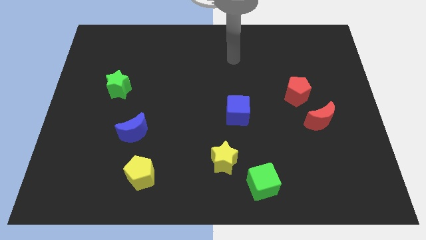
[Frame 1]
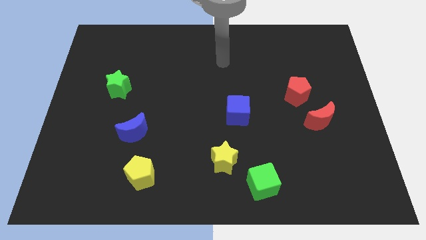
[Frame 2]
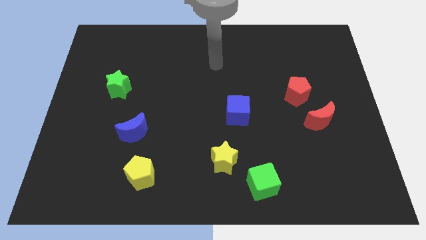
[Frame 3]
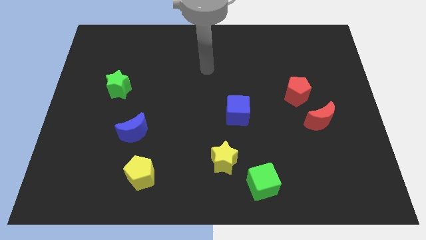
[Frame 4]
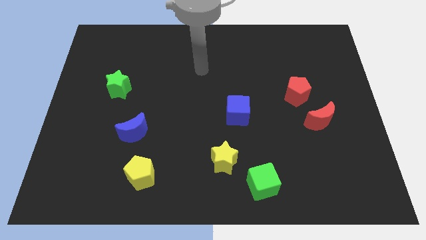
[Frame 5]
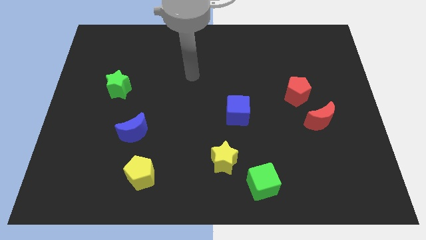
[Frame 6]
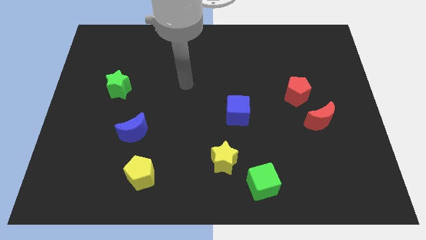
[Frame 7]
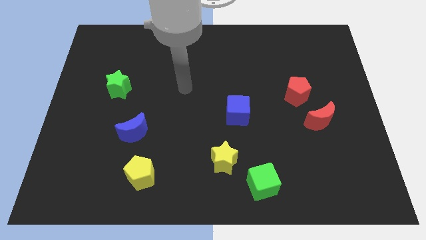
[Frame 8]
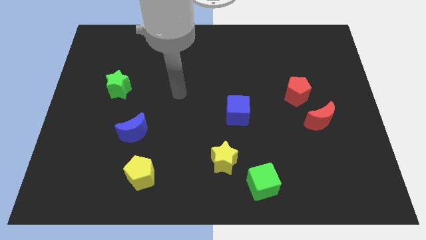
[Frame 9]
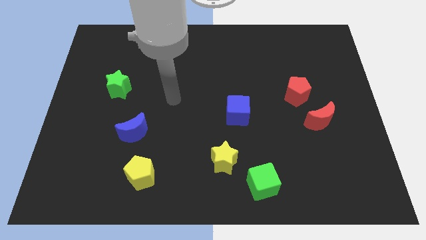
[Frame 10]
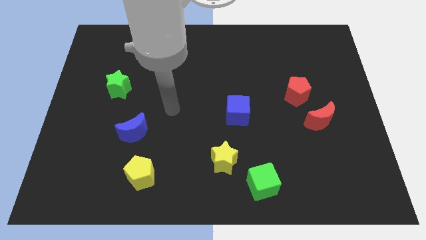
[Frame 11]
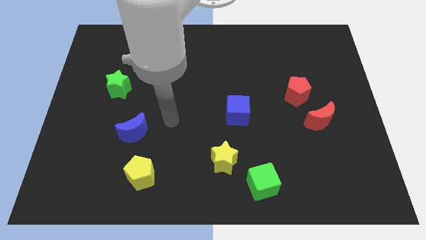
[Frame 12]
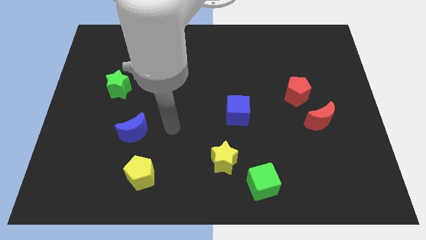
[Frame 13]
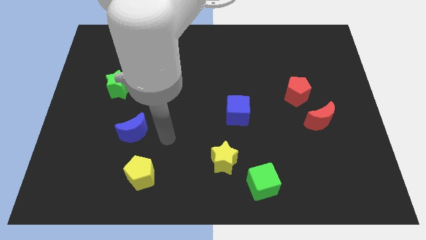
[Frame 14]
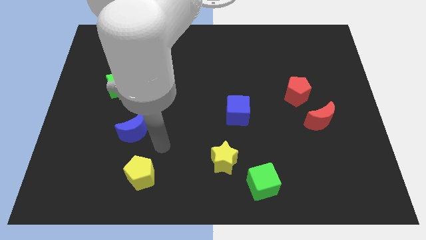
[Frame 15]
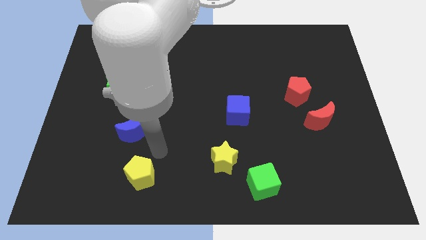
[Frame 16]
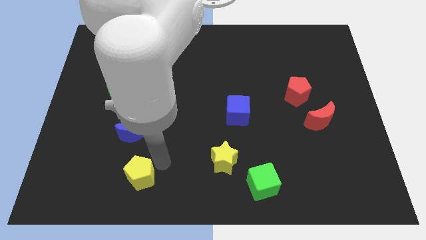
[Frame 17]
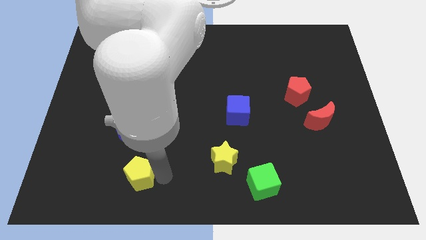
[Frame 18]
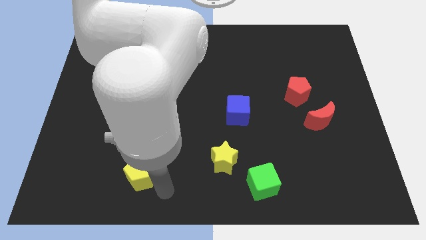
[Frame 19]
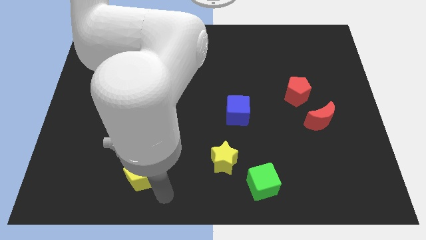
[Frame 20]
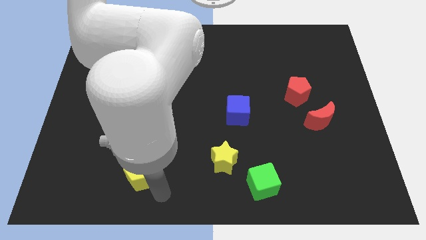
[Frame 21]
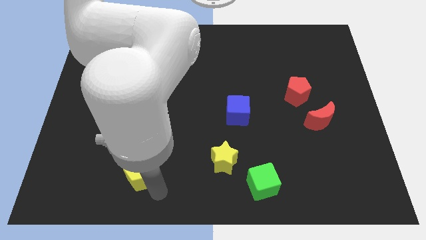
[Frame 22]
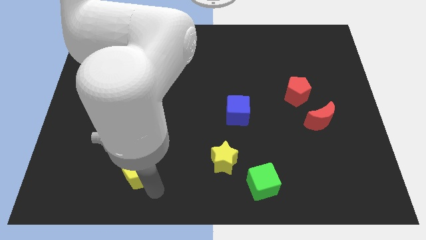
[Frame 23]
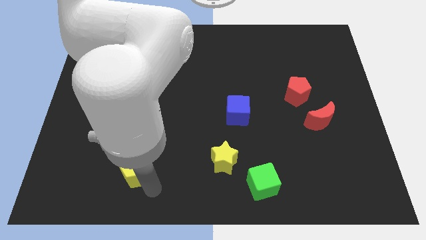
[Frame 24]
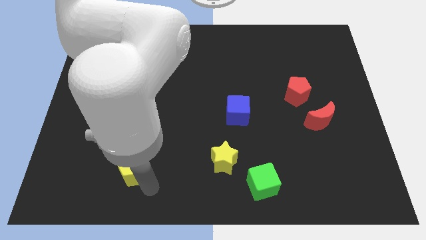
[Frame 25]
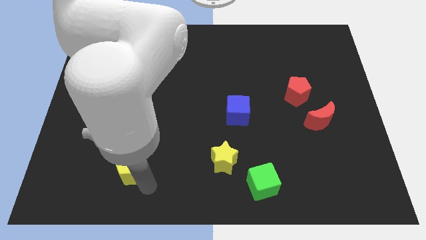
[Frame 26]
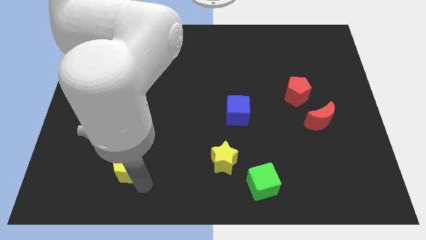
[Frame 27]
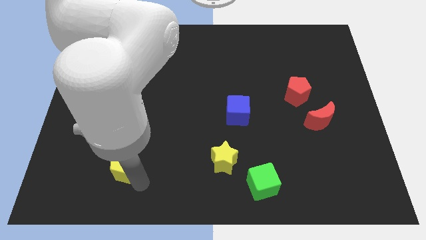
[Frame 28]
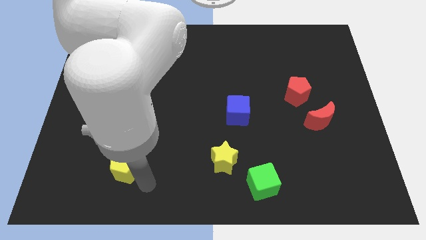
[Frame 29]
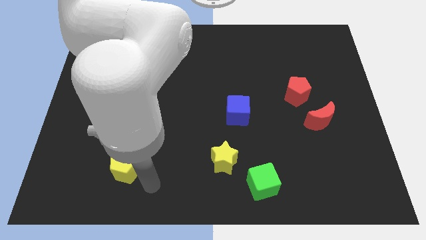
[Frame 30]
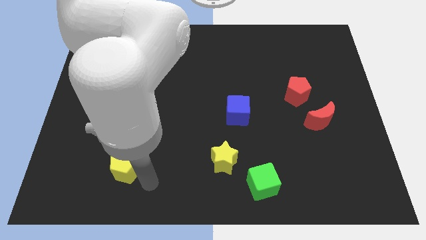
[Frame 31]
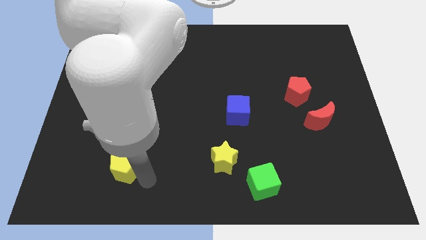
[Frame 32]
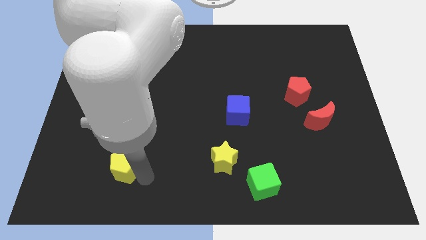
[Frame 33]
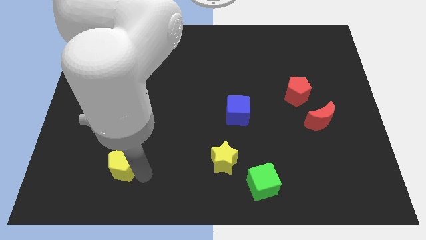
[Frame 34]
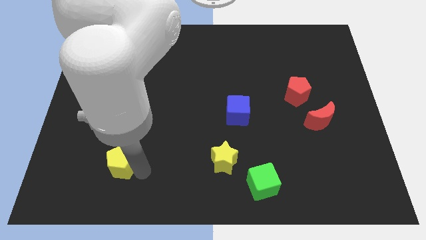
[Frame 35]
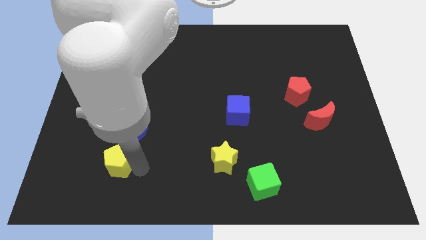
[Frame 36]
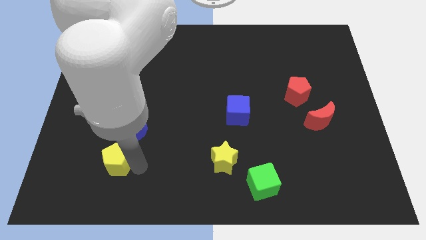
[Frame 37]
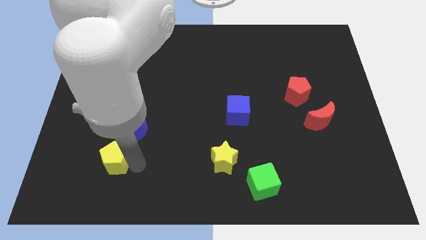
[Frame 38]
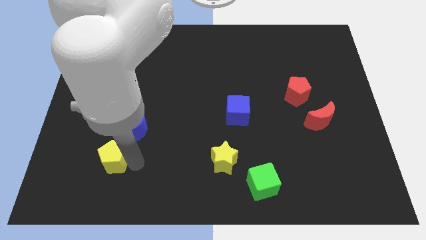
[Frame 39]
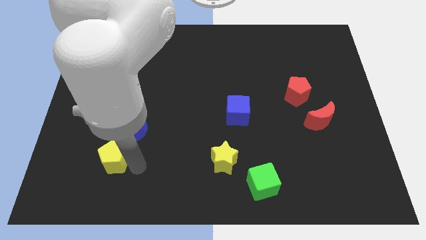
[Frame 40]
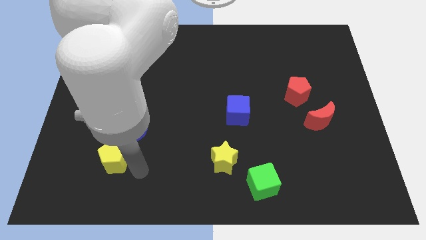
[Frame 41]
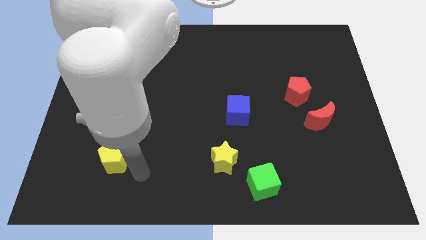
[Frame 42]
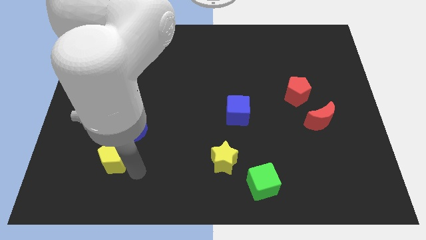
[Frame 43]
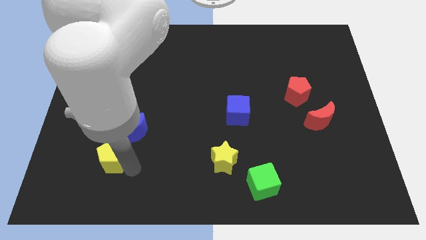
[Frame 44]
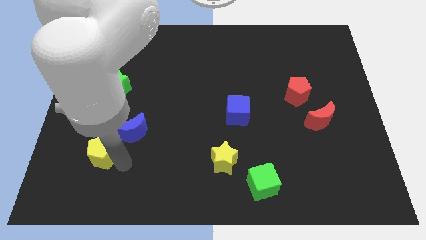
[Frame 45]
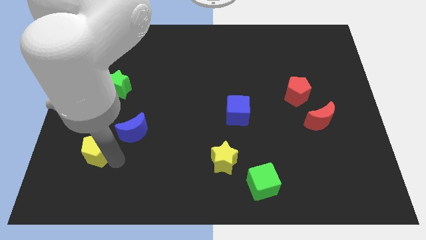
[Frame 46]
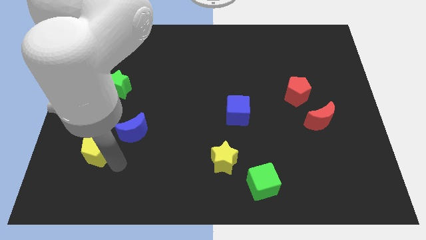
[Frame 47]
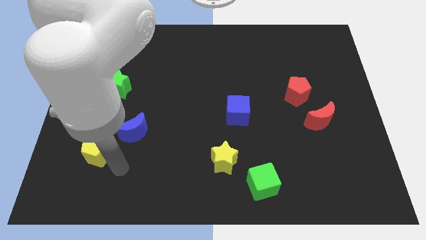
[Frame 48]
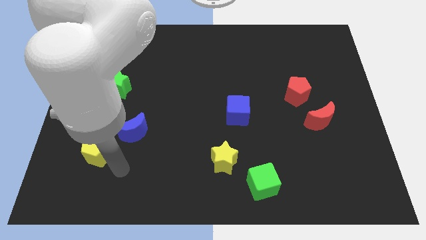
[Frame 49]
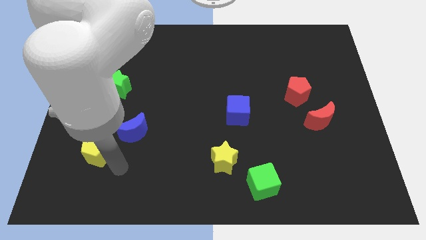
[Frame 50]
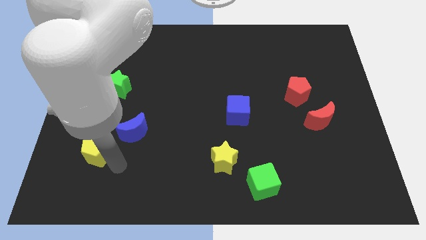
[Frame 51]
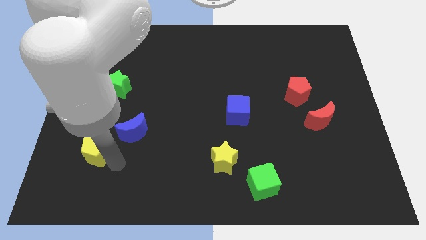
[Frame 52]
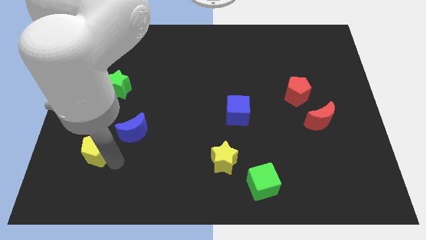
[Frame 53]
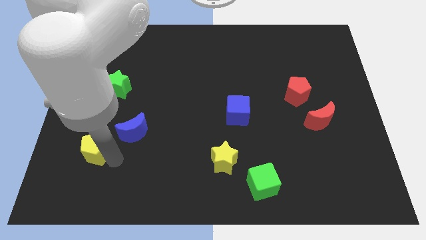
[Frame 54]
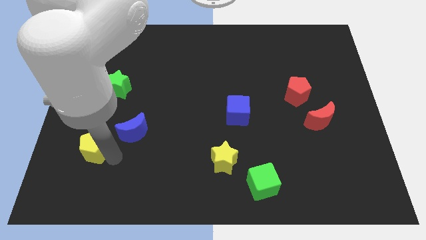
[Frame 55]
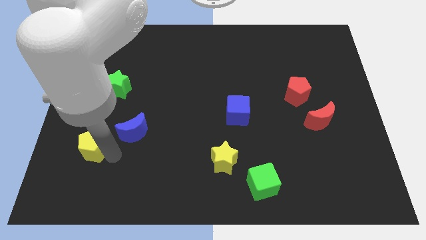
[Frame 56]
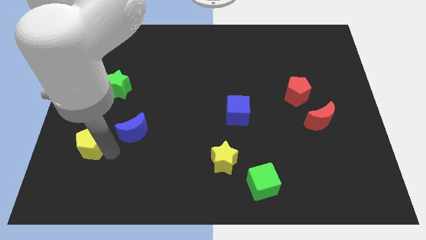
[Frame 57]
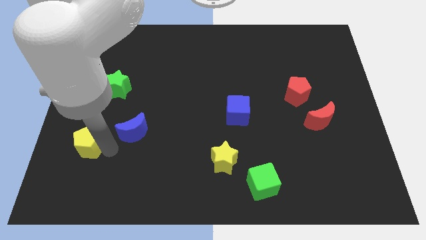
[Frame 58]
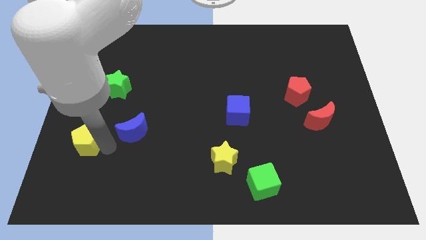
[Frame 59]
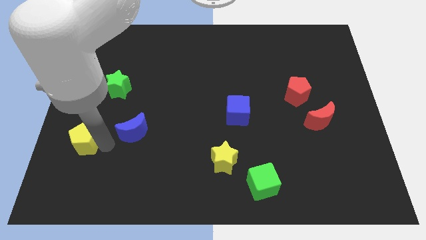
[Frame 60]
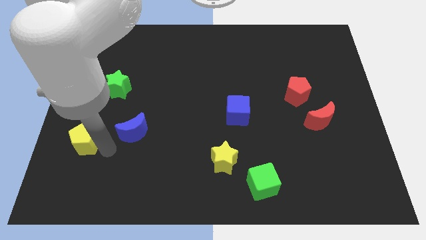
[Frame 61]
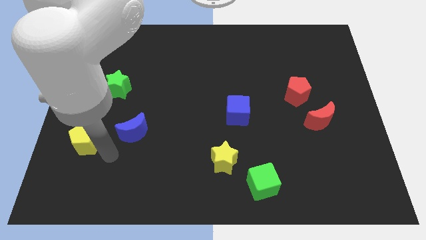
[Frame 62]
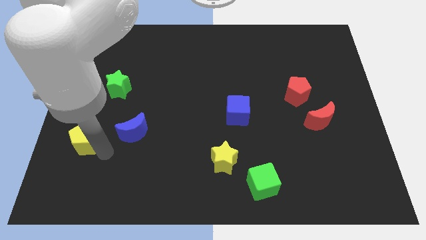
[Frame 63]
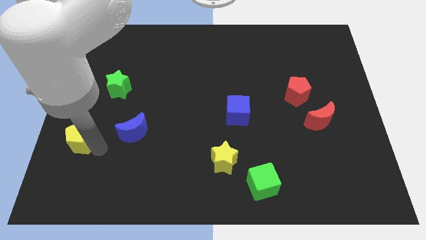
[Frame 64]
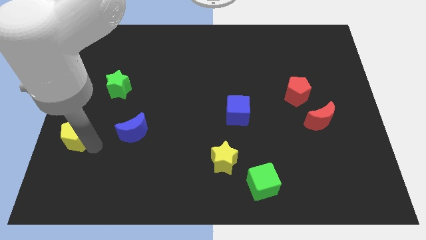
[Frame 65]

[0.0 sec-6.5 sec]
put the yellow pentagon to the left side of the board
